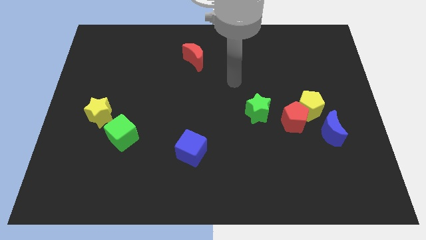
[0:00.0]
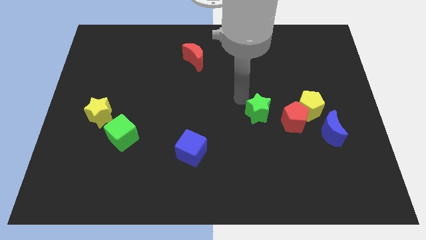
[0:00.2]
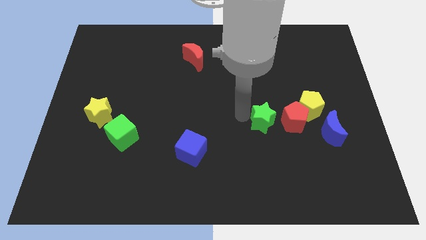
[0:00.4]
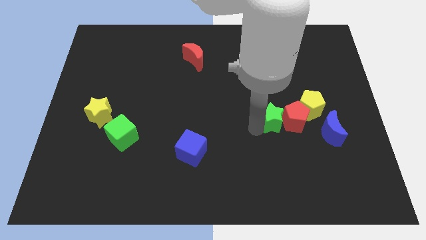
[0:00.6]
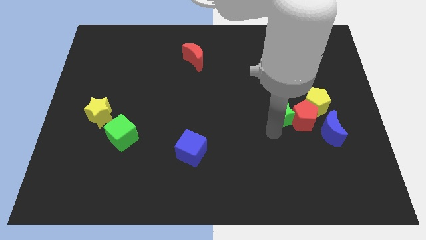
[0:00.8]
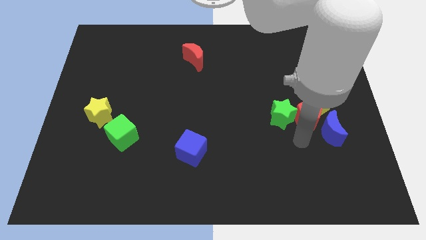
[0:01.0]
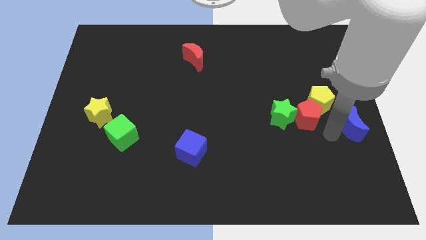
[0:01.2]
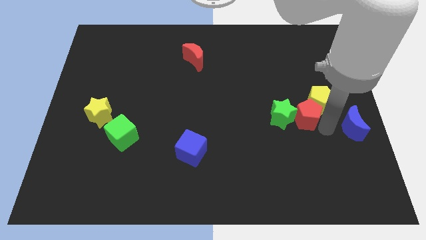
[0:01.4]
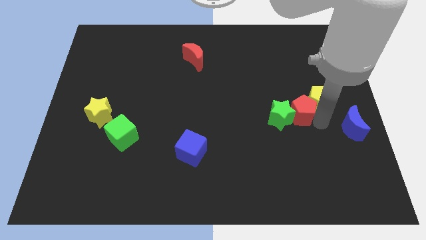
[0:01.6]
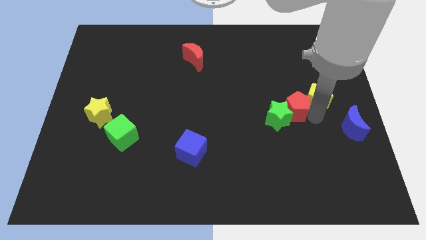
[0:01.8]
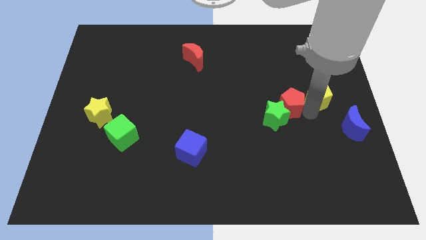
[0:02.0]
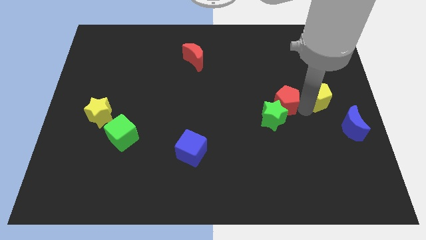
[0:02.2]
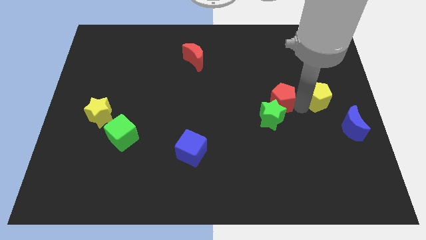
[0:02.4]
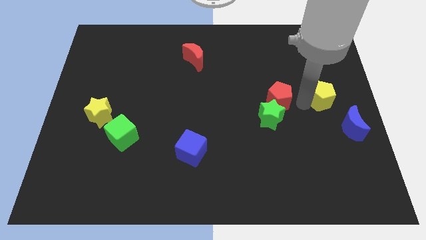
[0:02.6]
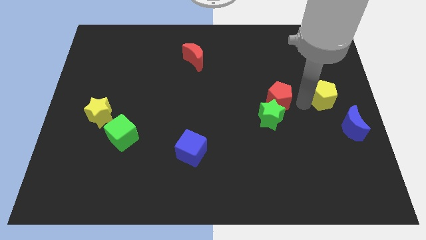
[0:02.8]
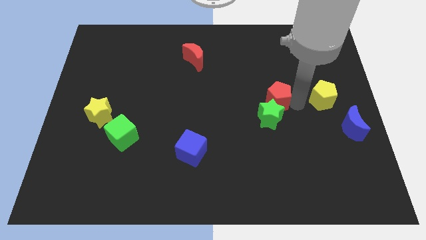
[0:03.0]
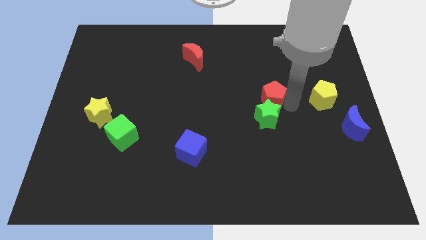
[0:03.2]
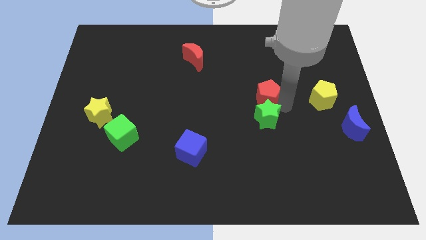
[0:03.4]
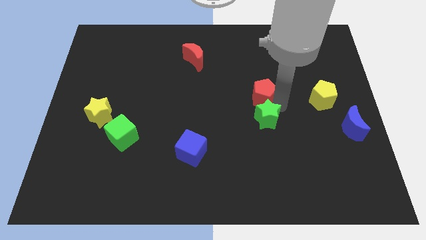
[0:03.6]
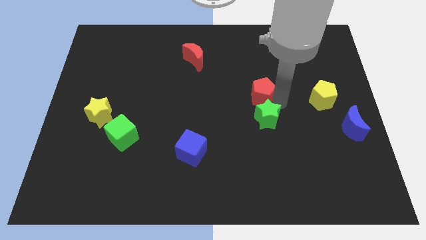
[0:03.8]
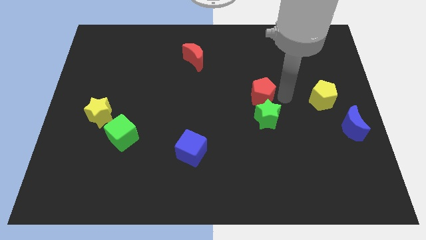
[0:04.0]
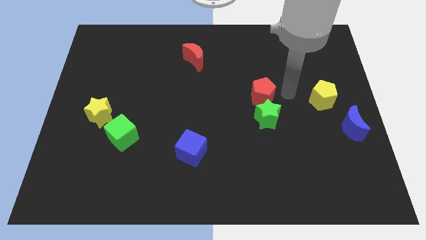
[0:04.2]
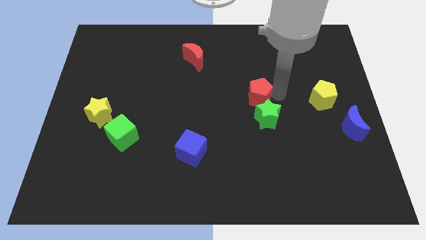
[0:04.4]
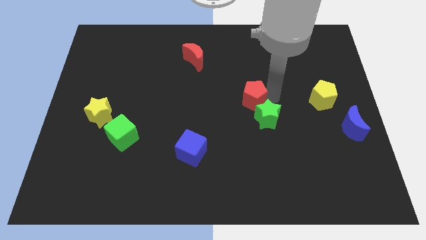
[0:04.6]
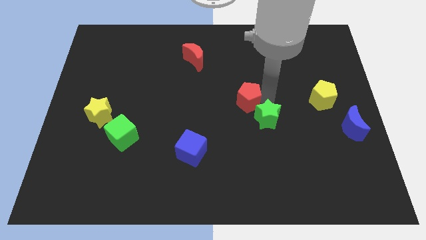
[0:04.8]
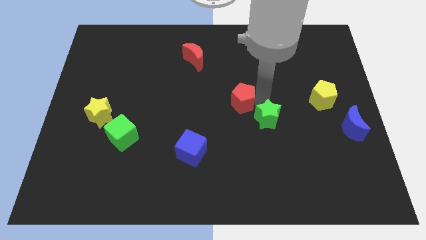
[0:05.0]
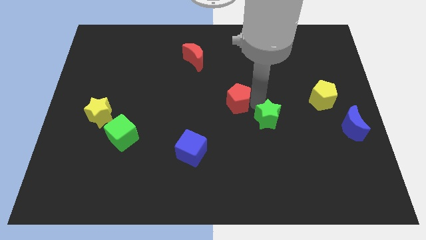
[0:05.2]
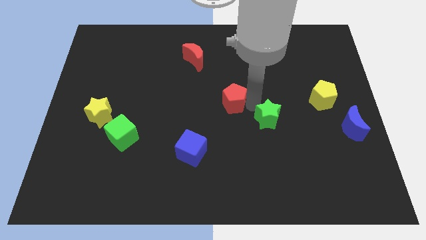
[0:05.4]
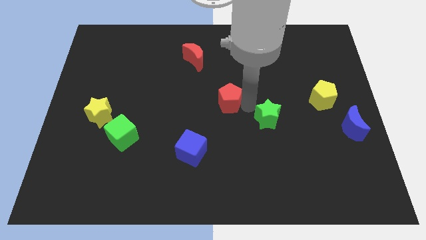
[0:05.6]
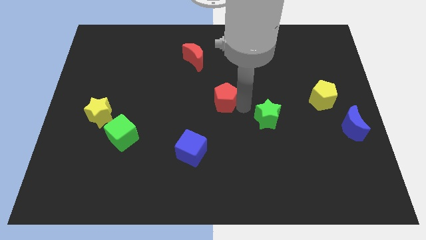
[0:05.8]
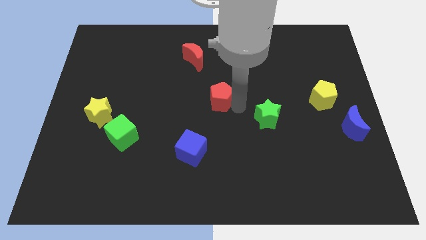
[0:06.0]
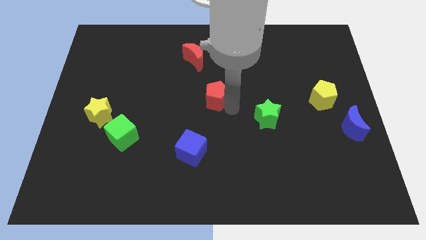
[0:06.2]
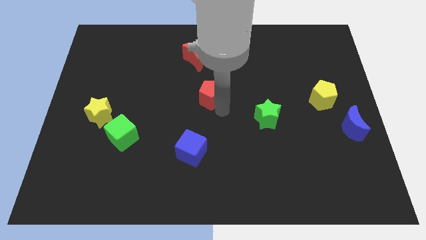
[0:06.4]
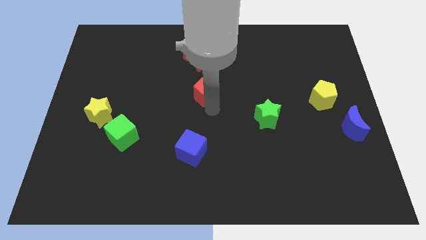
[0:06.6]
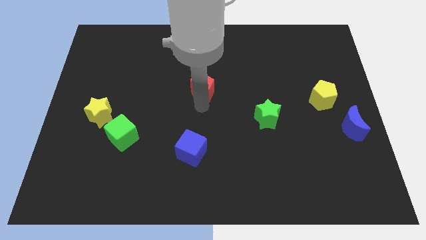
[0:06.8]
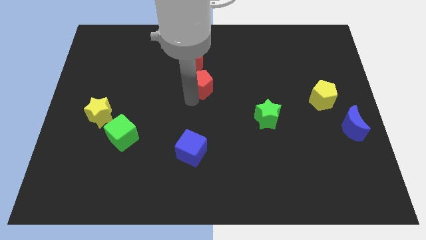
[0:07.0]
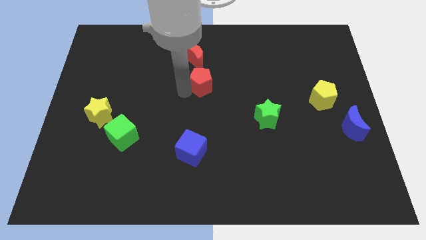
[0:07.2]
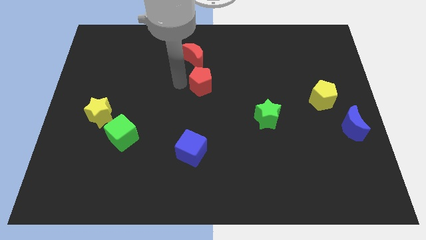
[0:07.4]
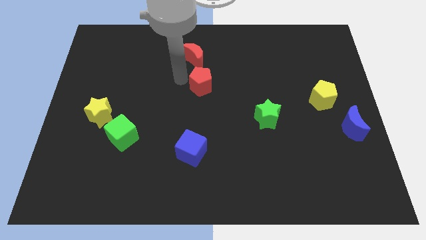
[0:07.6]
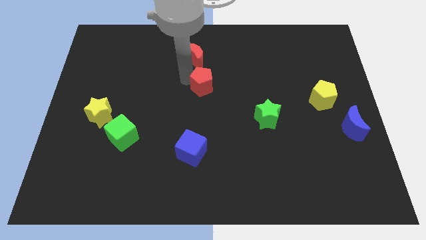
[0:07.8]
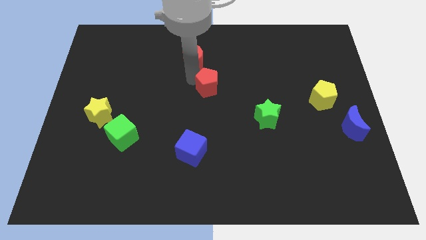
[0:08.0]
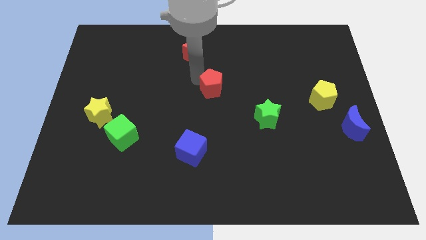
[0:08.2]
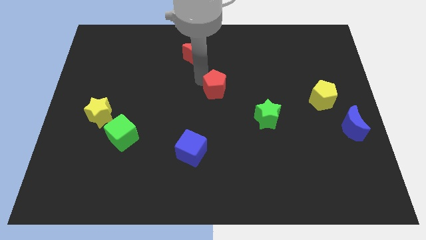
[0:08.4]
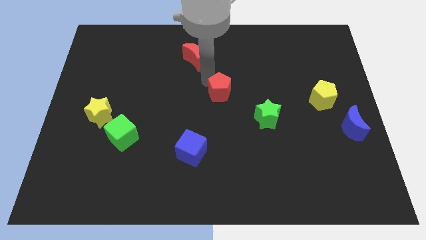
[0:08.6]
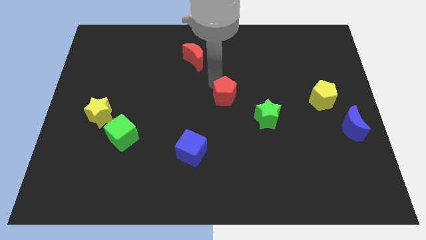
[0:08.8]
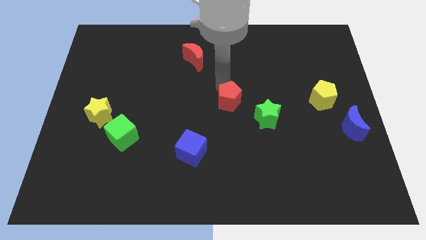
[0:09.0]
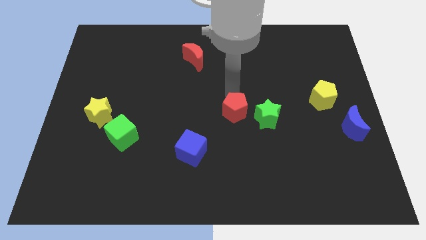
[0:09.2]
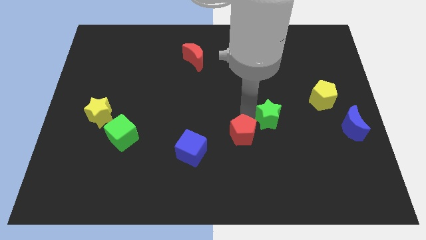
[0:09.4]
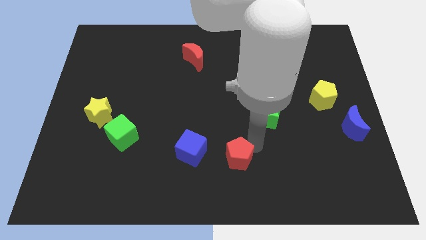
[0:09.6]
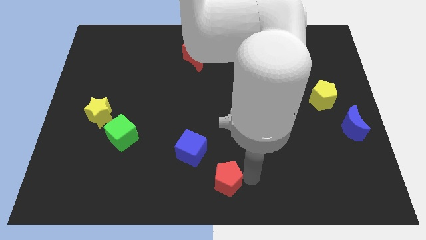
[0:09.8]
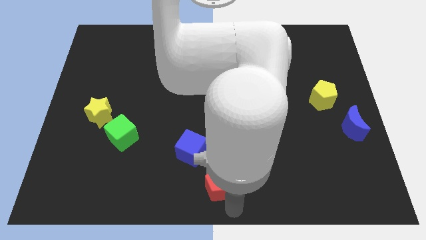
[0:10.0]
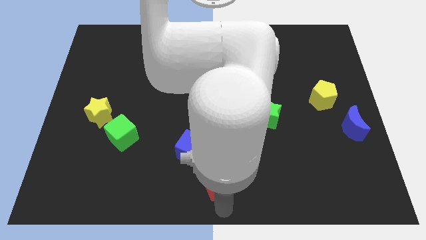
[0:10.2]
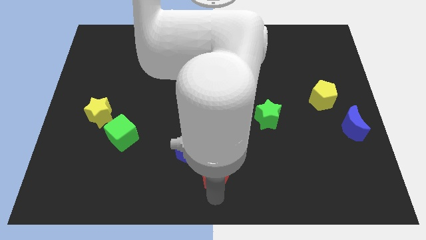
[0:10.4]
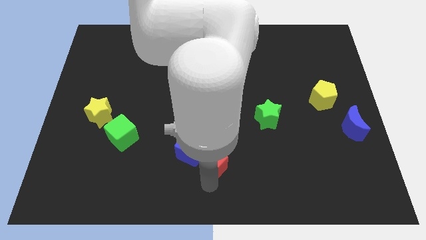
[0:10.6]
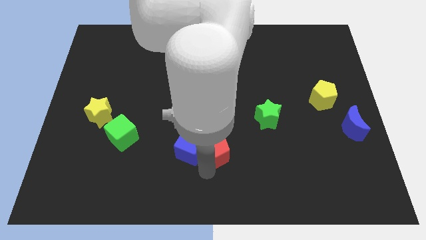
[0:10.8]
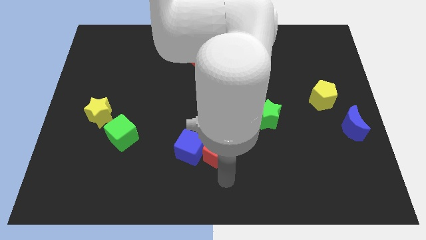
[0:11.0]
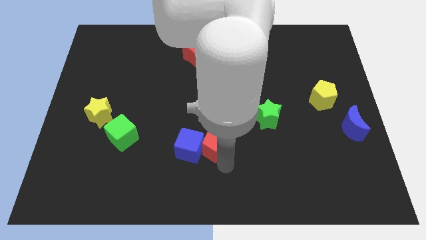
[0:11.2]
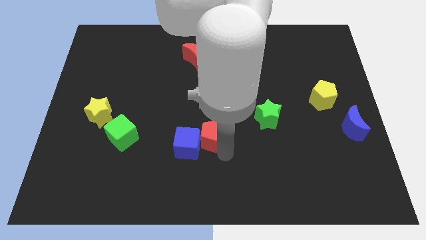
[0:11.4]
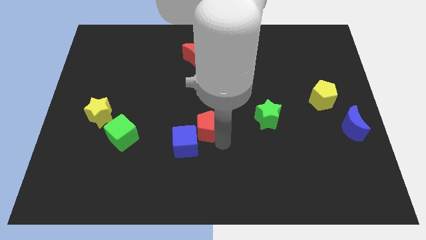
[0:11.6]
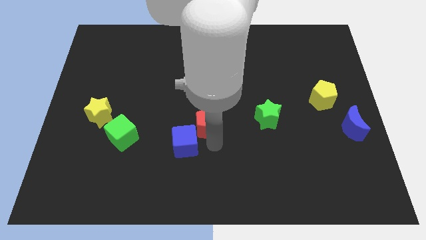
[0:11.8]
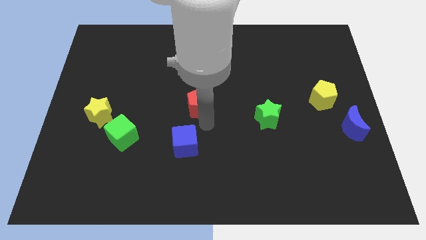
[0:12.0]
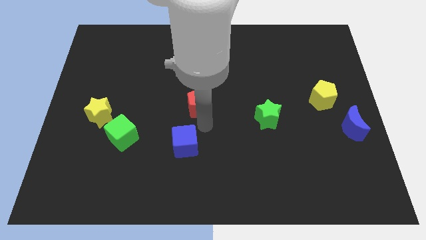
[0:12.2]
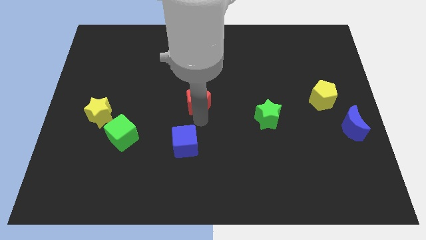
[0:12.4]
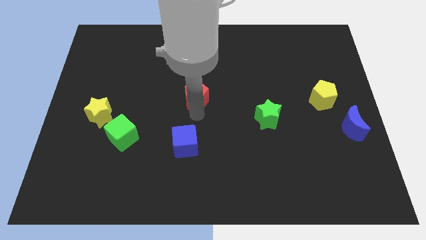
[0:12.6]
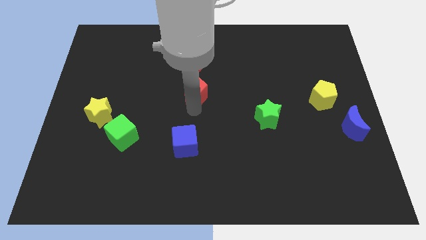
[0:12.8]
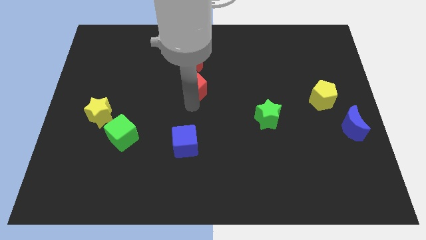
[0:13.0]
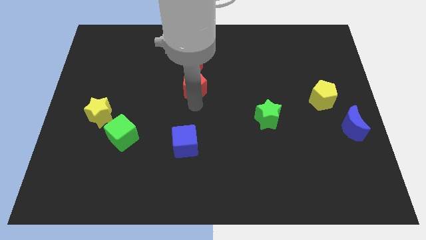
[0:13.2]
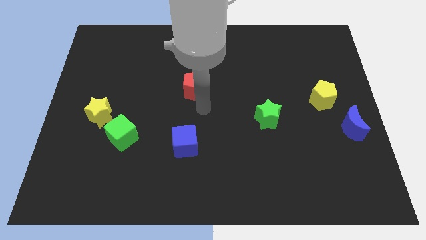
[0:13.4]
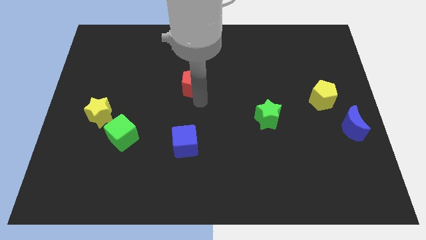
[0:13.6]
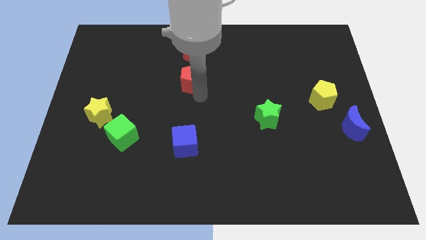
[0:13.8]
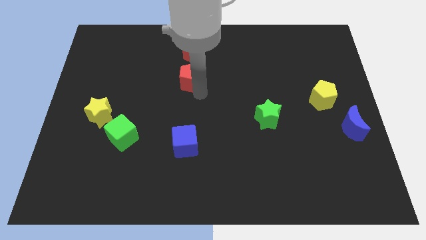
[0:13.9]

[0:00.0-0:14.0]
slide the red pentagon to the bottom left of the red moon

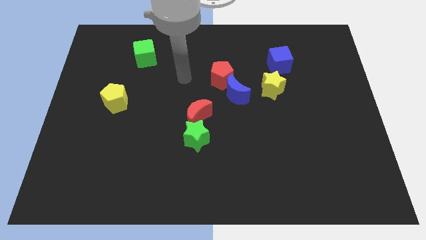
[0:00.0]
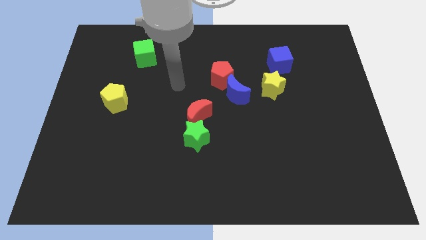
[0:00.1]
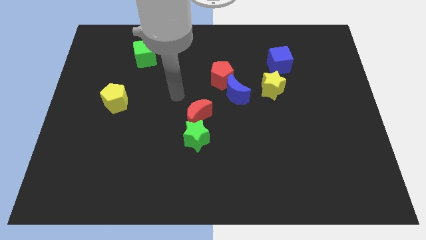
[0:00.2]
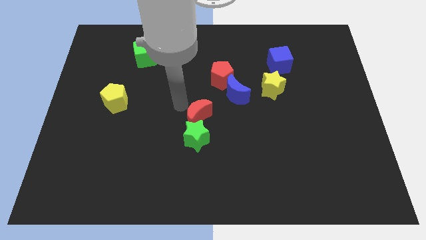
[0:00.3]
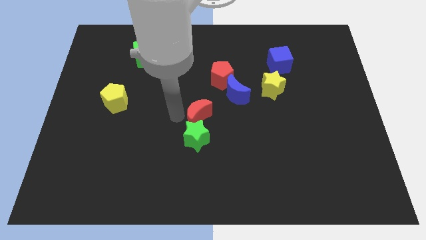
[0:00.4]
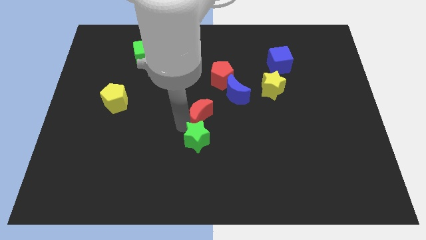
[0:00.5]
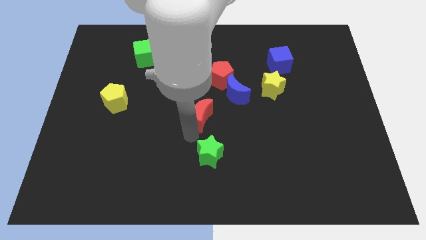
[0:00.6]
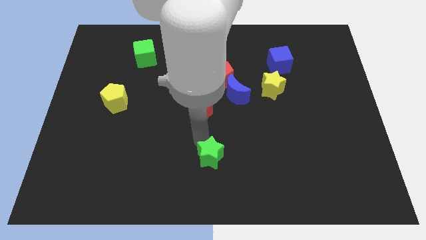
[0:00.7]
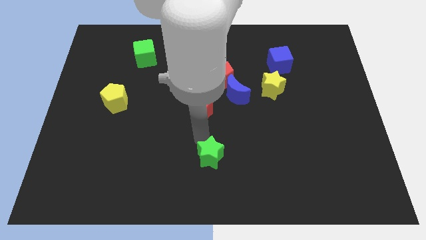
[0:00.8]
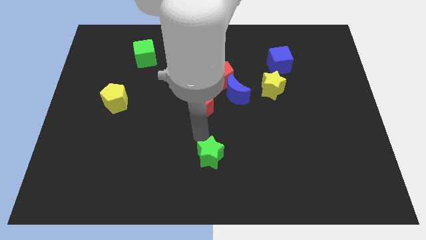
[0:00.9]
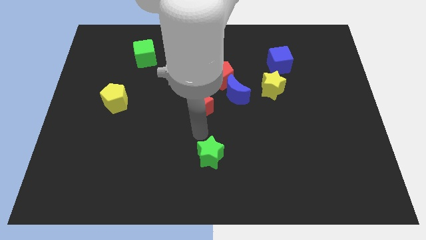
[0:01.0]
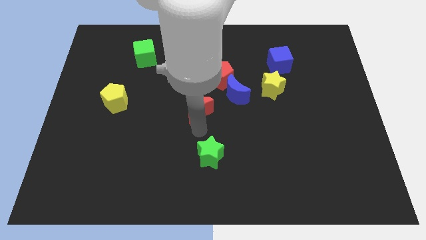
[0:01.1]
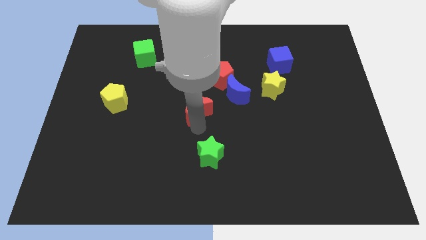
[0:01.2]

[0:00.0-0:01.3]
put the red moon diagonally down and to the left of the red pentagon
